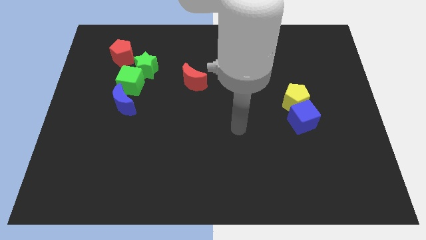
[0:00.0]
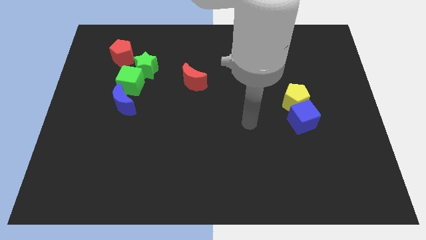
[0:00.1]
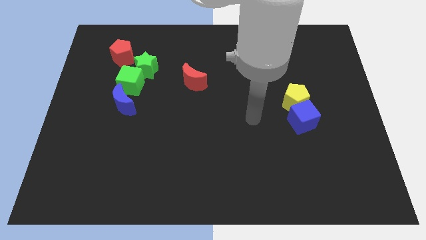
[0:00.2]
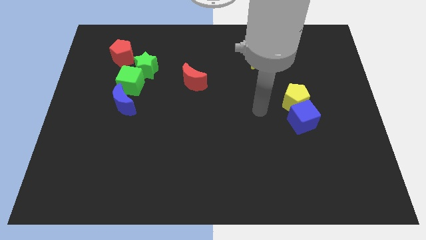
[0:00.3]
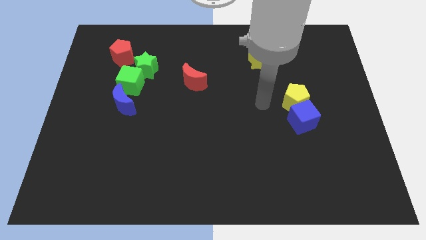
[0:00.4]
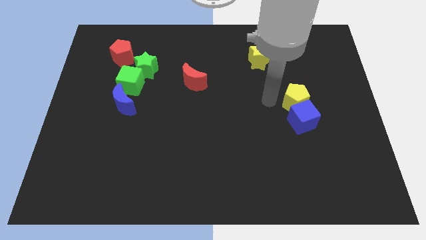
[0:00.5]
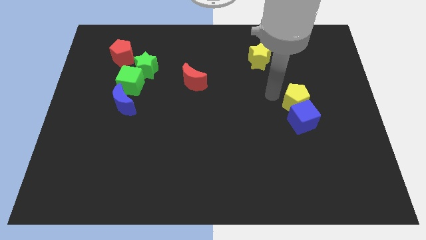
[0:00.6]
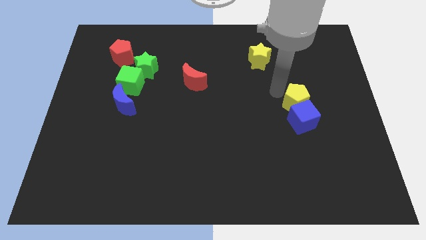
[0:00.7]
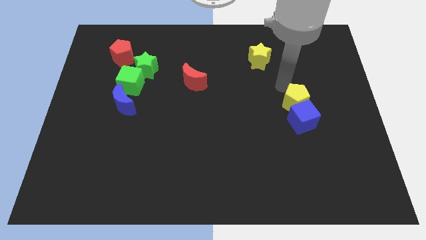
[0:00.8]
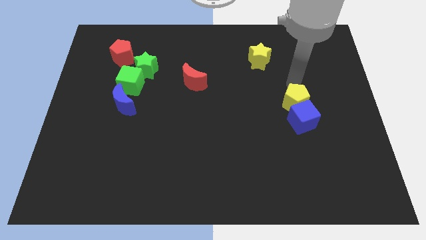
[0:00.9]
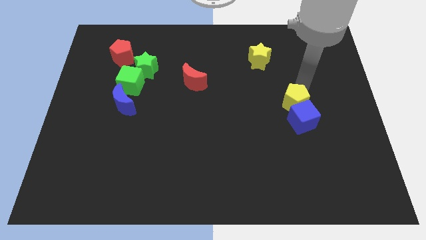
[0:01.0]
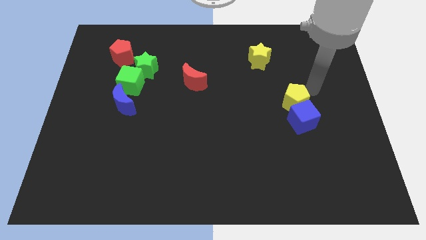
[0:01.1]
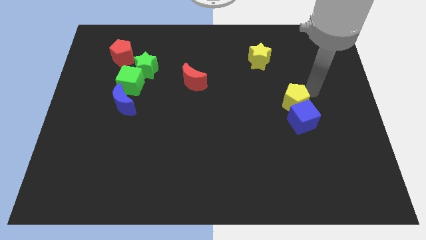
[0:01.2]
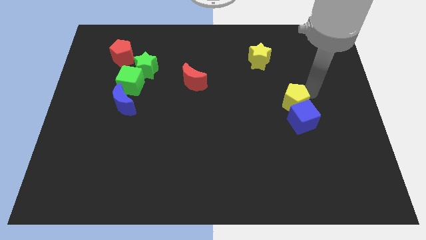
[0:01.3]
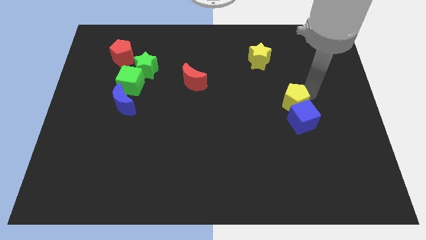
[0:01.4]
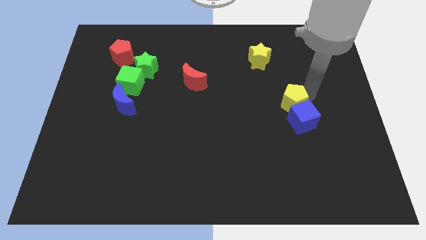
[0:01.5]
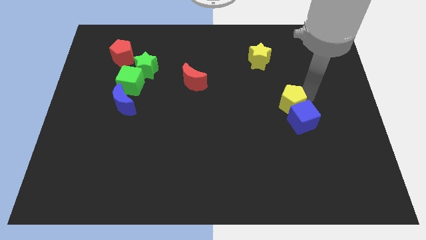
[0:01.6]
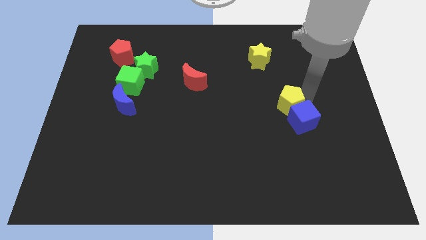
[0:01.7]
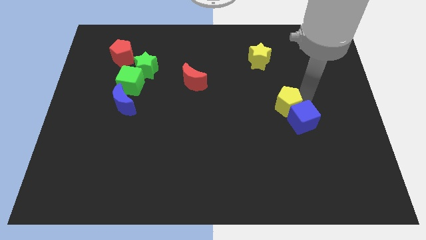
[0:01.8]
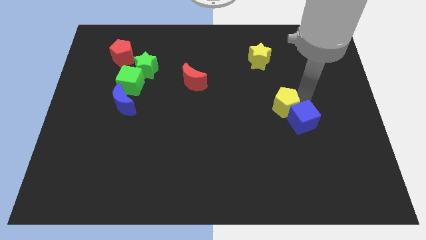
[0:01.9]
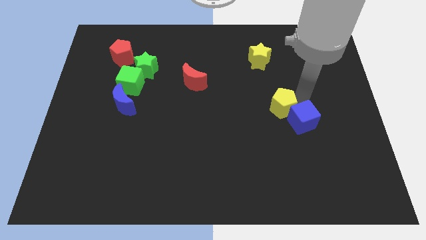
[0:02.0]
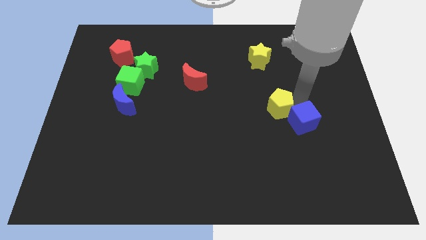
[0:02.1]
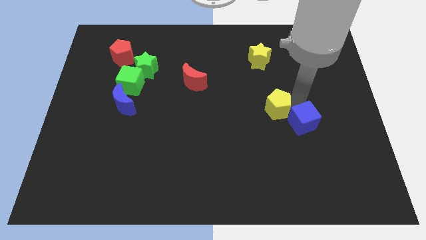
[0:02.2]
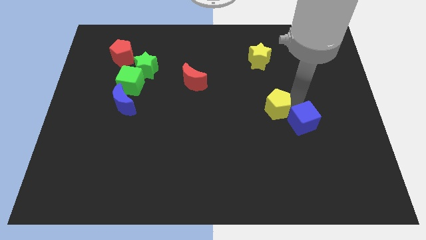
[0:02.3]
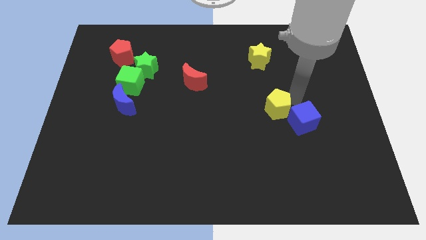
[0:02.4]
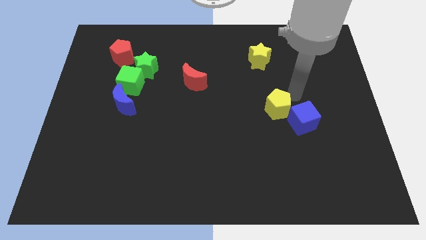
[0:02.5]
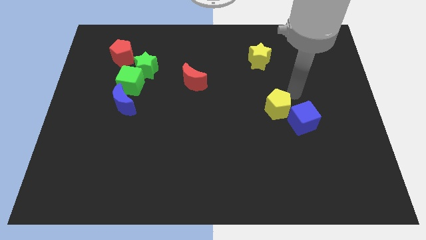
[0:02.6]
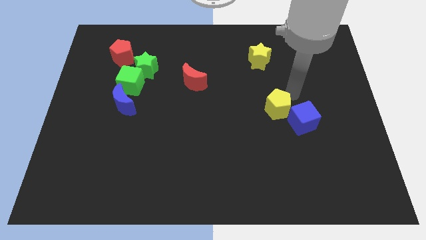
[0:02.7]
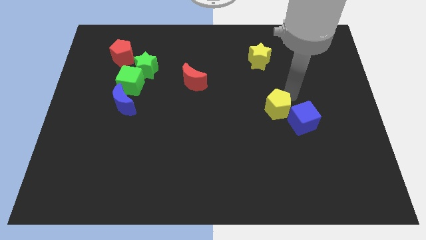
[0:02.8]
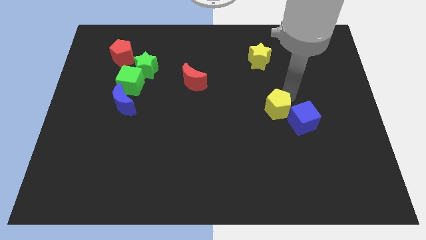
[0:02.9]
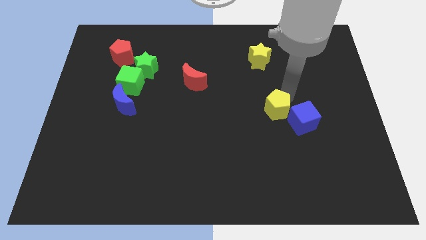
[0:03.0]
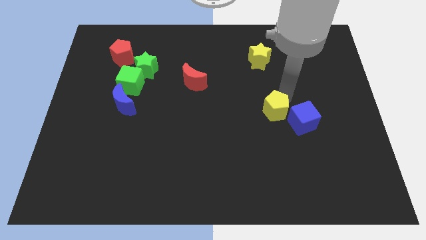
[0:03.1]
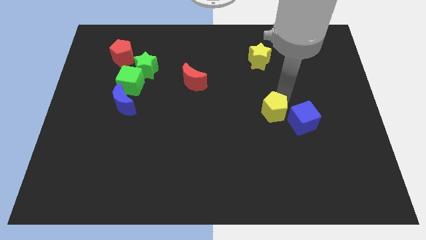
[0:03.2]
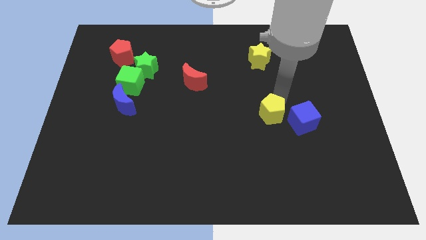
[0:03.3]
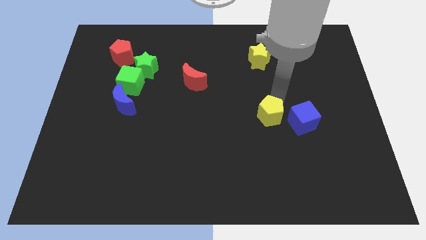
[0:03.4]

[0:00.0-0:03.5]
push the yellow pentagon downwards and left somewhat

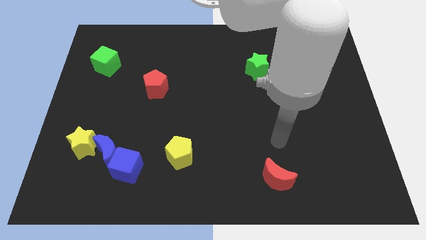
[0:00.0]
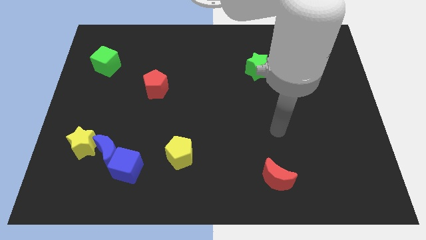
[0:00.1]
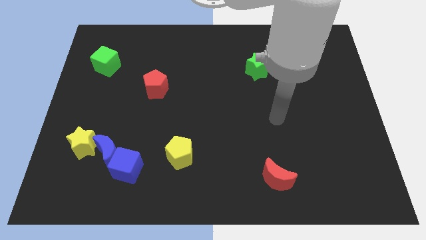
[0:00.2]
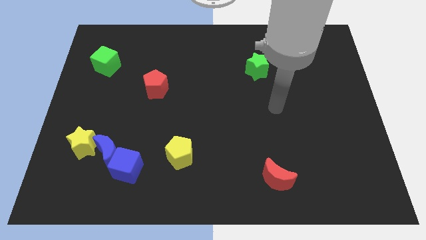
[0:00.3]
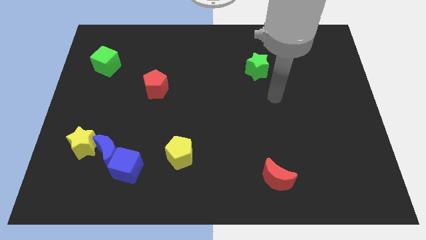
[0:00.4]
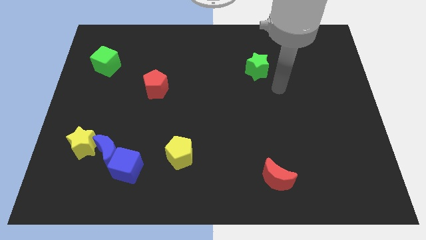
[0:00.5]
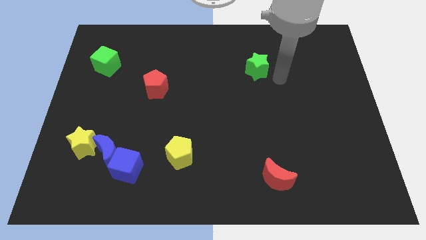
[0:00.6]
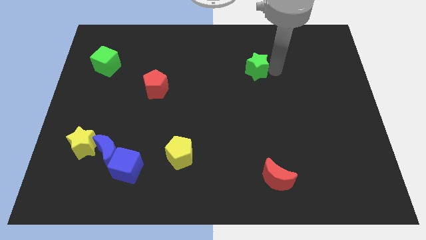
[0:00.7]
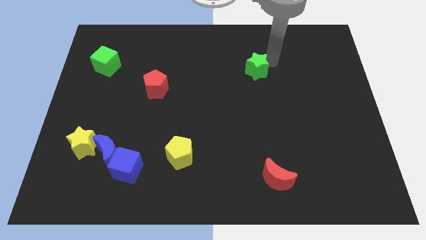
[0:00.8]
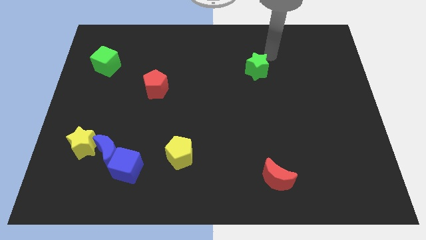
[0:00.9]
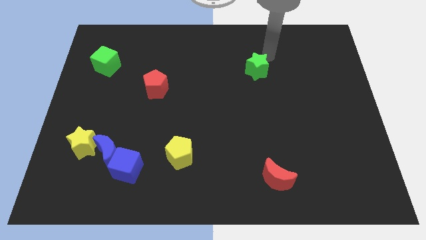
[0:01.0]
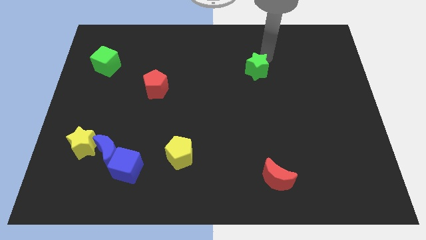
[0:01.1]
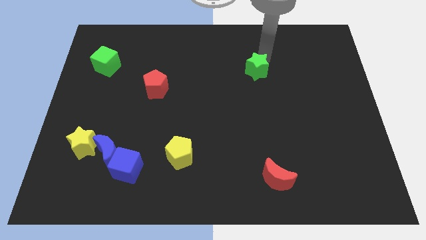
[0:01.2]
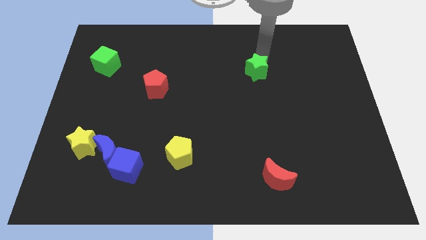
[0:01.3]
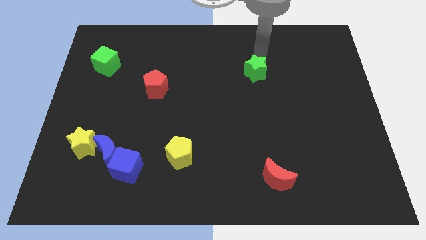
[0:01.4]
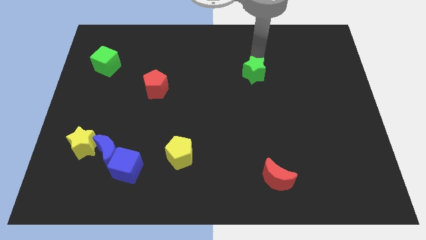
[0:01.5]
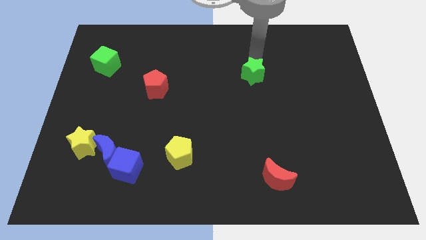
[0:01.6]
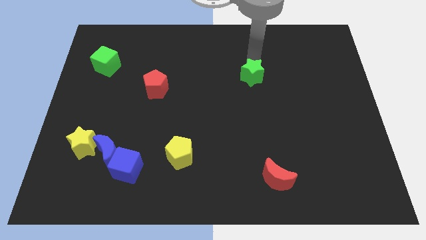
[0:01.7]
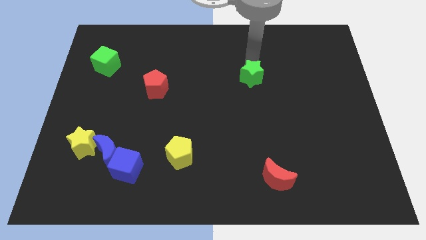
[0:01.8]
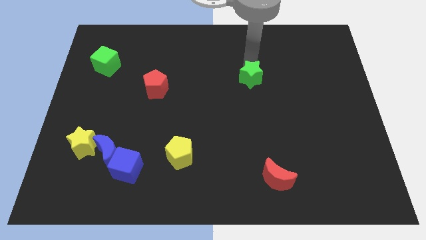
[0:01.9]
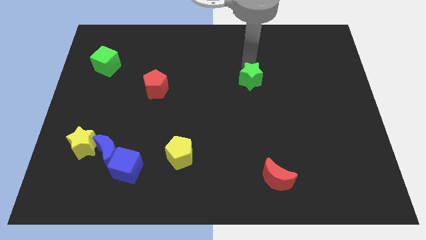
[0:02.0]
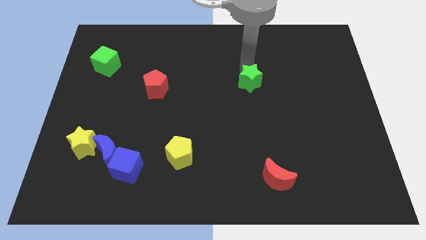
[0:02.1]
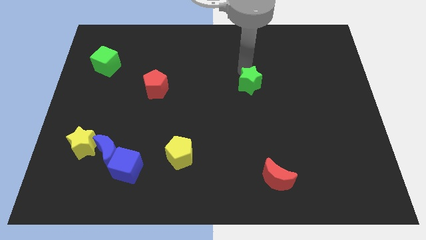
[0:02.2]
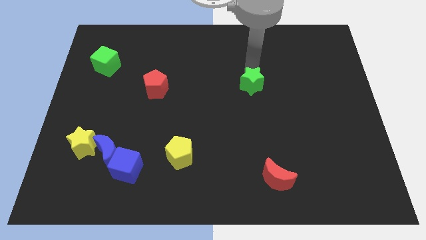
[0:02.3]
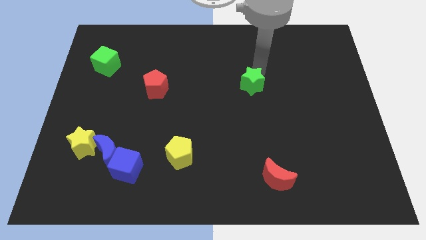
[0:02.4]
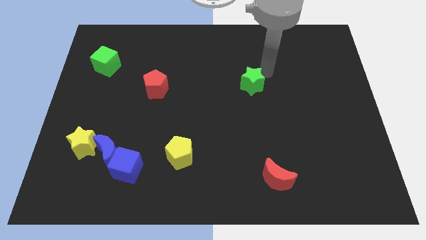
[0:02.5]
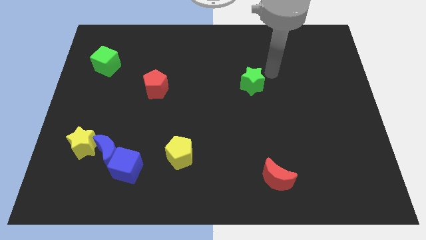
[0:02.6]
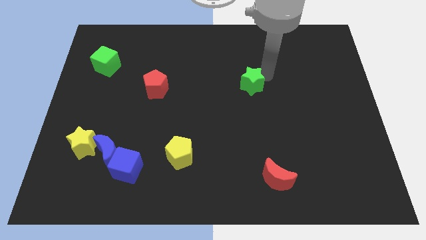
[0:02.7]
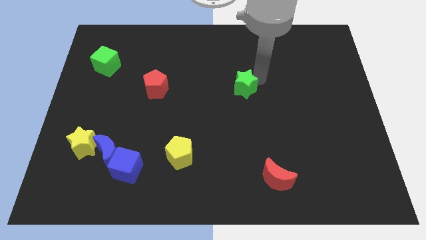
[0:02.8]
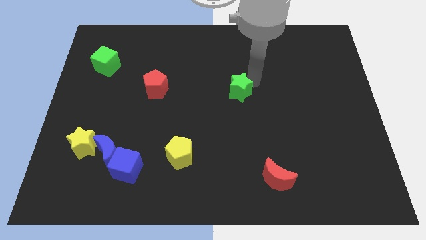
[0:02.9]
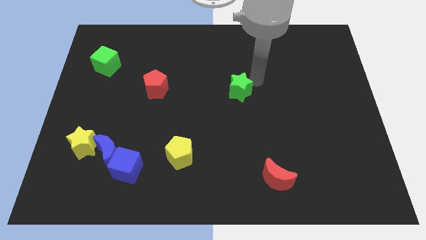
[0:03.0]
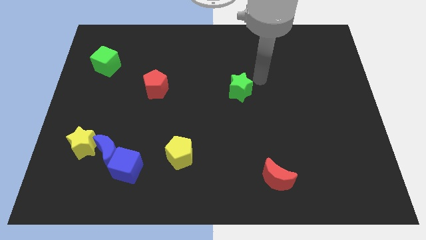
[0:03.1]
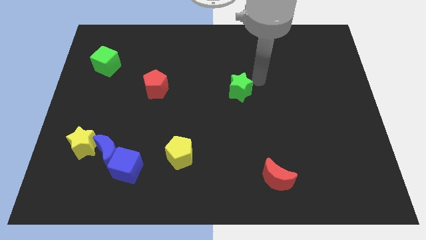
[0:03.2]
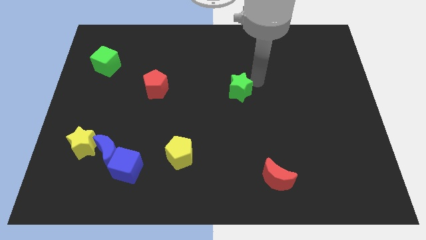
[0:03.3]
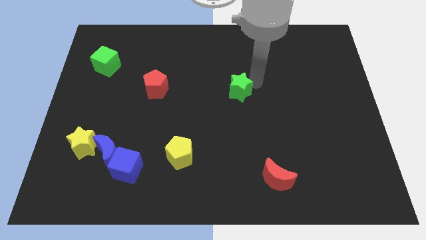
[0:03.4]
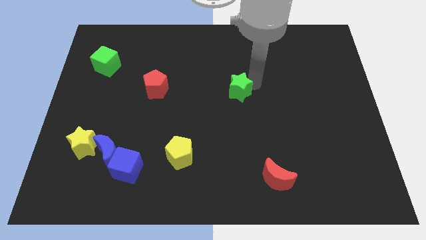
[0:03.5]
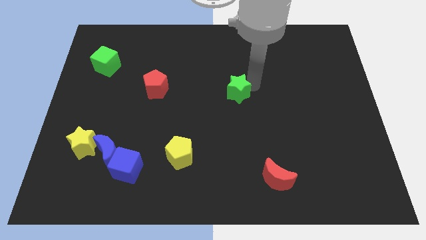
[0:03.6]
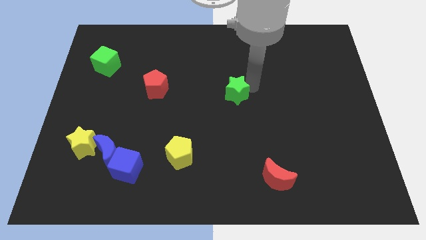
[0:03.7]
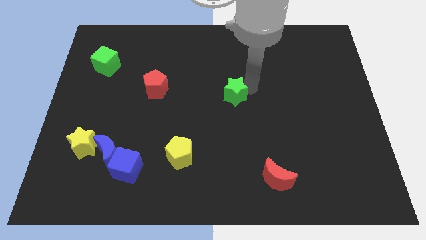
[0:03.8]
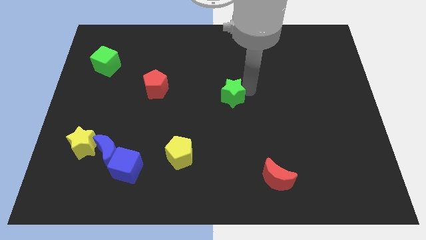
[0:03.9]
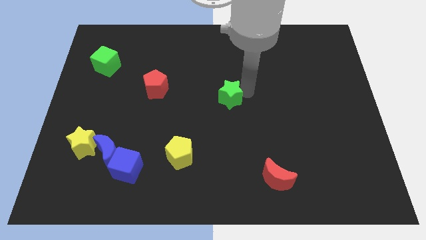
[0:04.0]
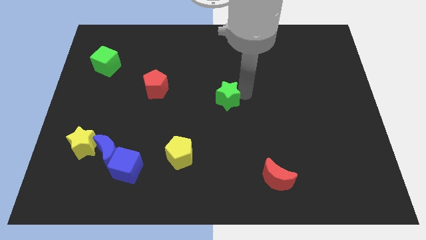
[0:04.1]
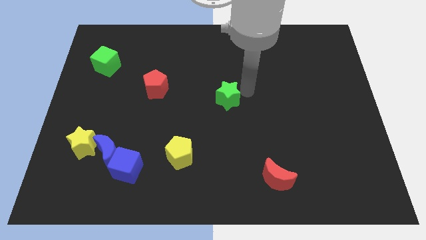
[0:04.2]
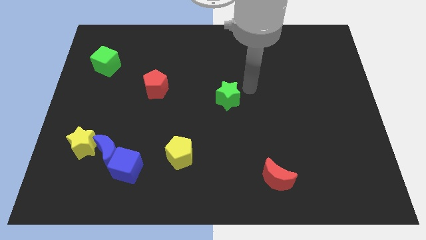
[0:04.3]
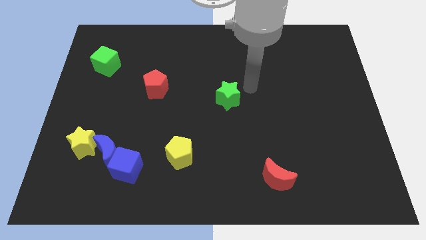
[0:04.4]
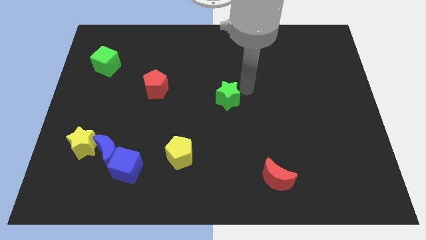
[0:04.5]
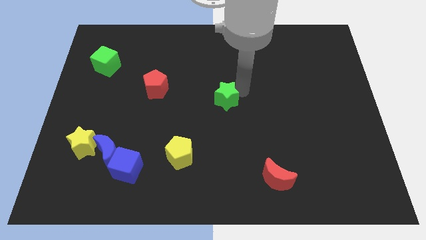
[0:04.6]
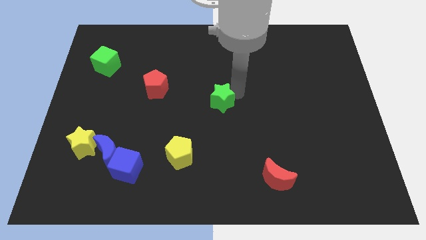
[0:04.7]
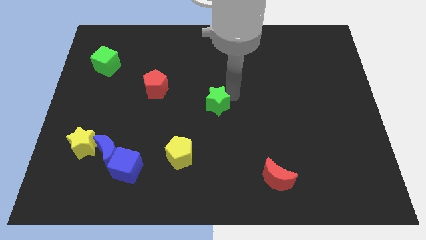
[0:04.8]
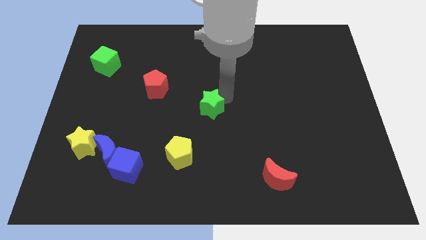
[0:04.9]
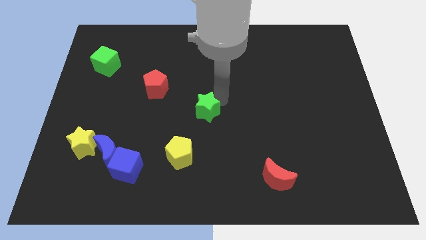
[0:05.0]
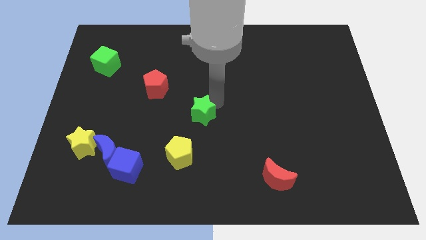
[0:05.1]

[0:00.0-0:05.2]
push the green star down and left

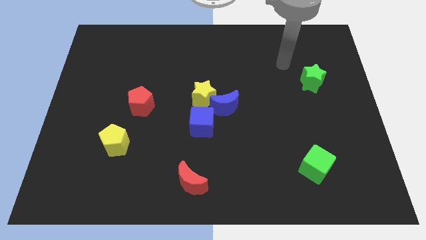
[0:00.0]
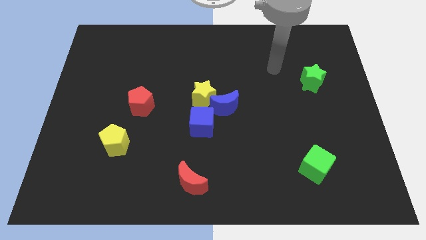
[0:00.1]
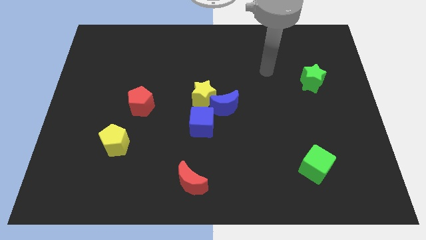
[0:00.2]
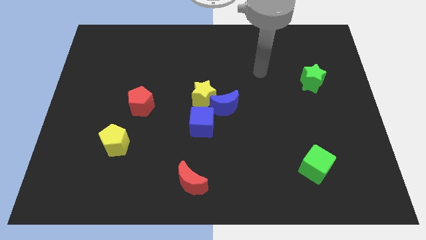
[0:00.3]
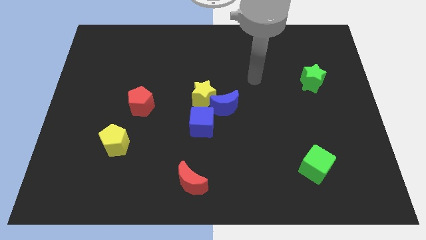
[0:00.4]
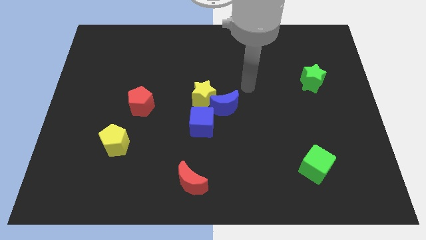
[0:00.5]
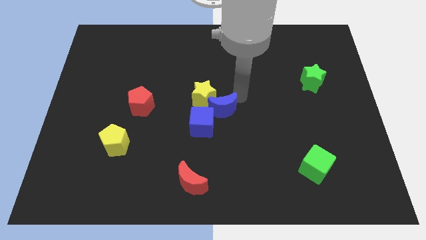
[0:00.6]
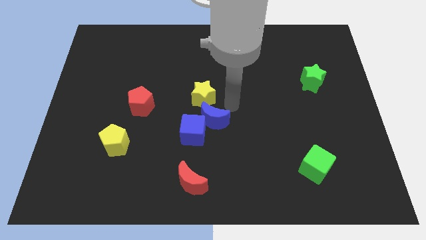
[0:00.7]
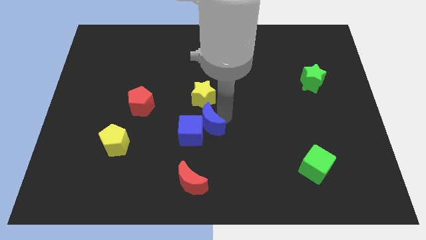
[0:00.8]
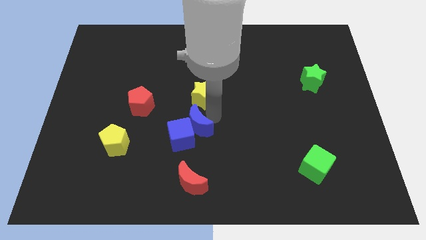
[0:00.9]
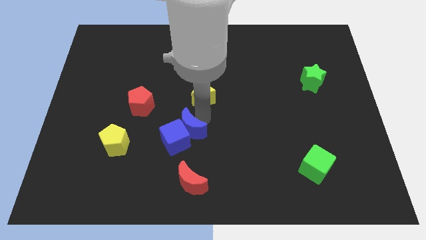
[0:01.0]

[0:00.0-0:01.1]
slightly slide the blue cube diagonally downwards and to the left
